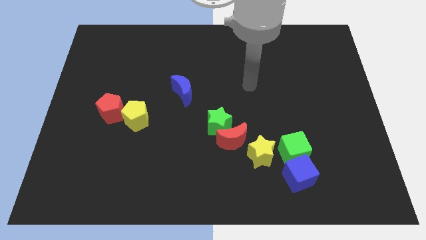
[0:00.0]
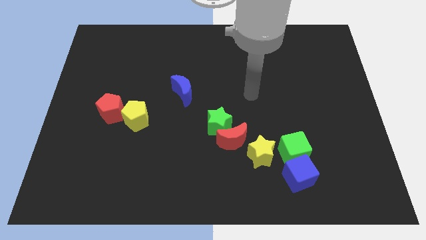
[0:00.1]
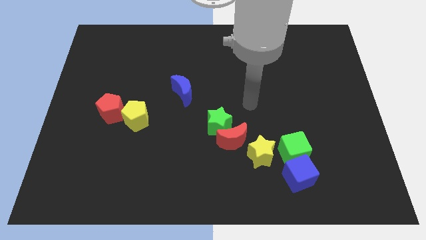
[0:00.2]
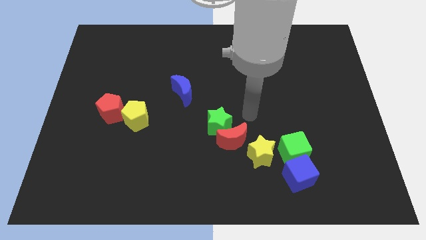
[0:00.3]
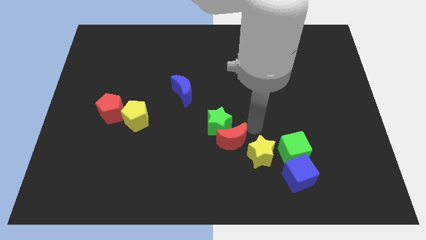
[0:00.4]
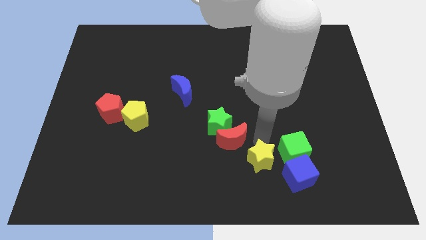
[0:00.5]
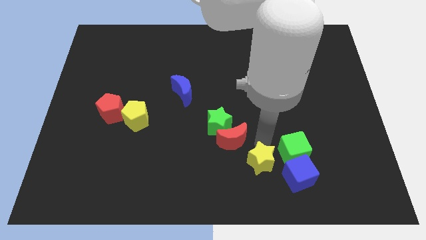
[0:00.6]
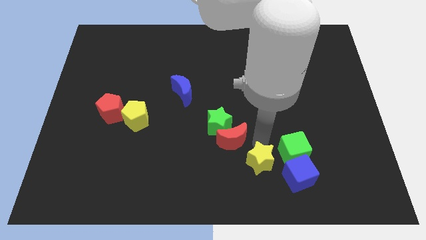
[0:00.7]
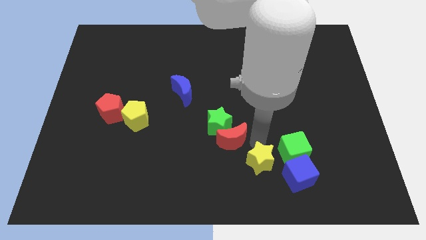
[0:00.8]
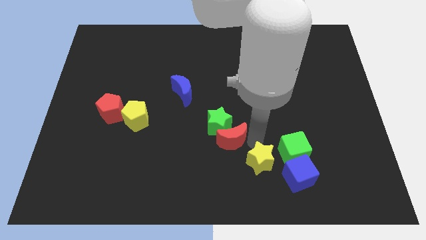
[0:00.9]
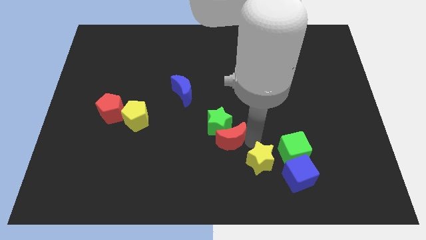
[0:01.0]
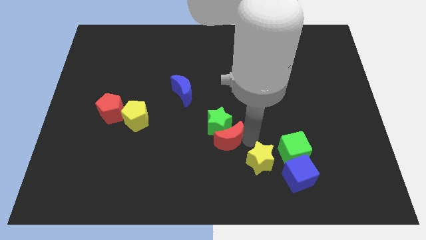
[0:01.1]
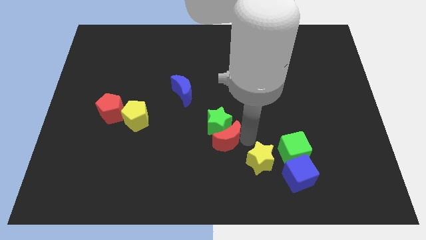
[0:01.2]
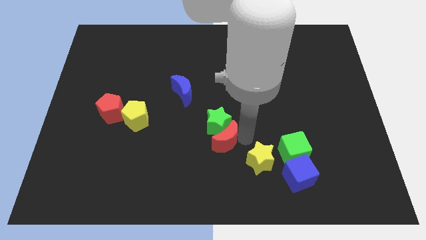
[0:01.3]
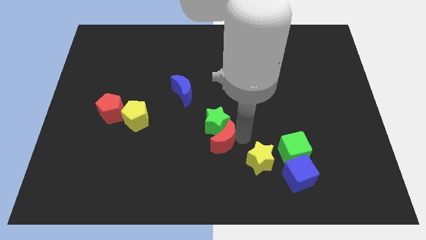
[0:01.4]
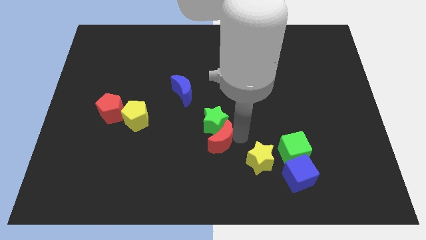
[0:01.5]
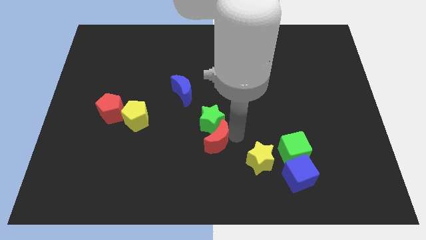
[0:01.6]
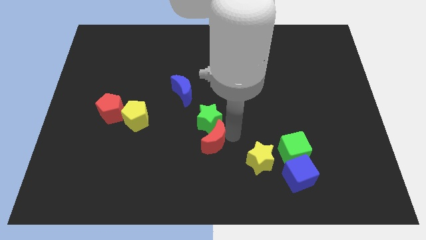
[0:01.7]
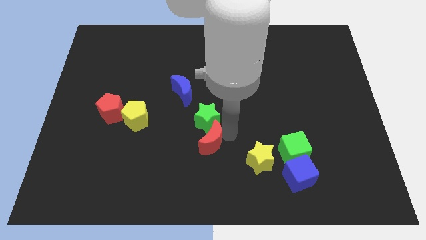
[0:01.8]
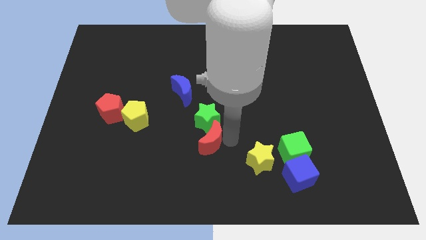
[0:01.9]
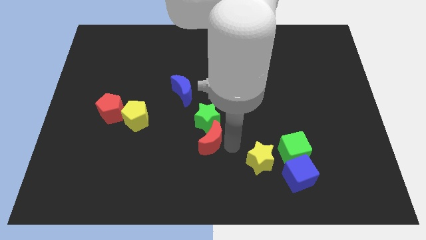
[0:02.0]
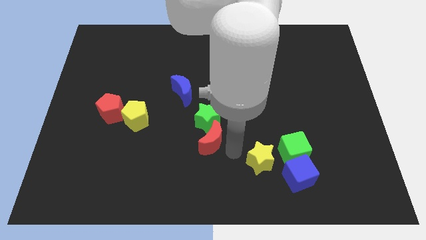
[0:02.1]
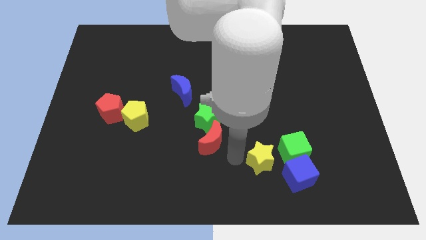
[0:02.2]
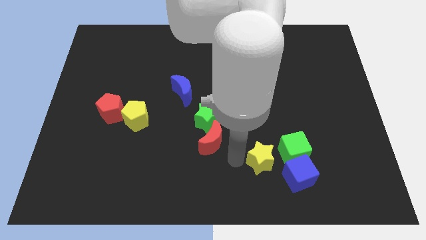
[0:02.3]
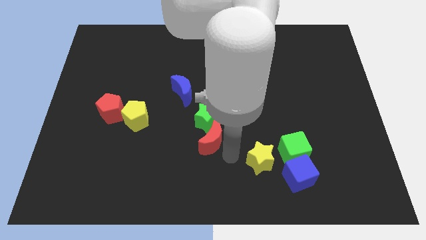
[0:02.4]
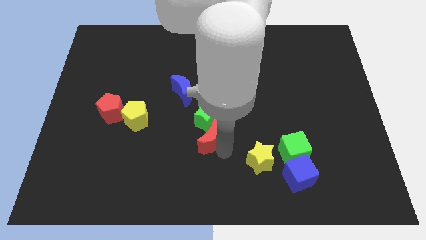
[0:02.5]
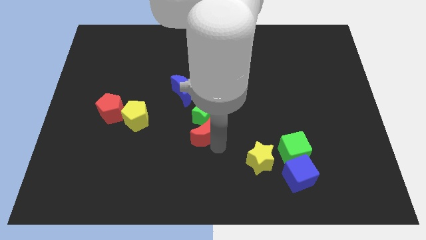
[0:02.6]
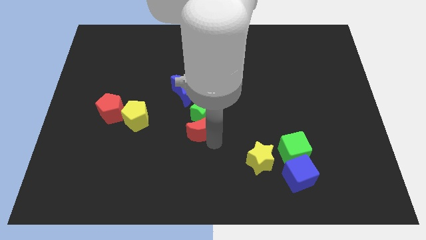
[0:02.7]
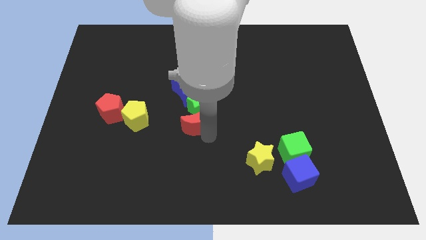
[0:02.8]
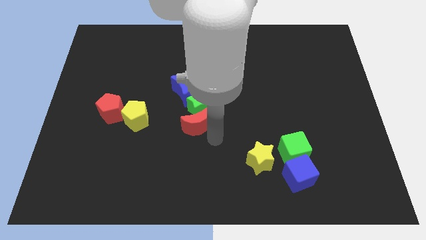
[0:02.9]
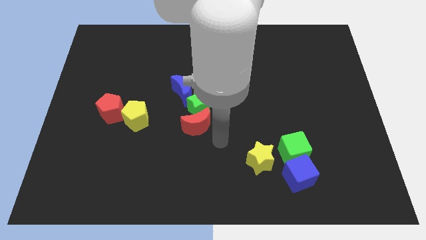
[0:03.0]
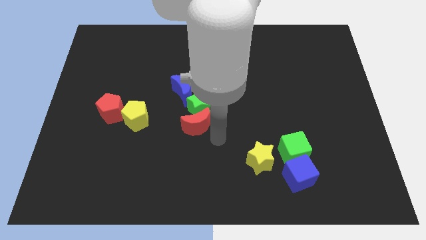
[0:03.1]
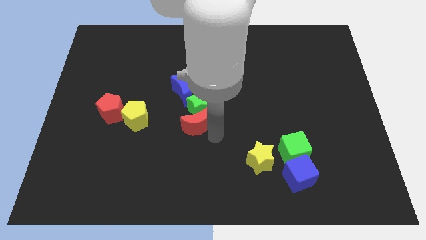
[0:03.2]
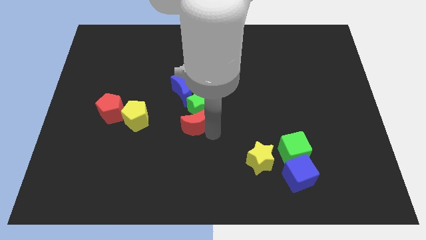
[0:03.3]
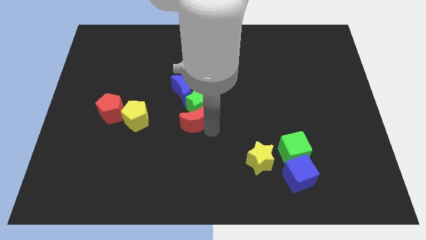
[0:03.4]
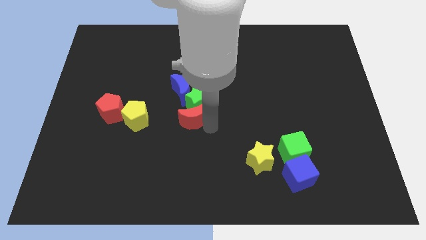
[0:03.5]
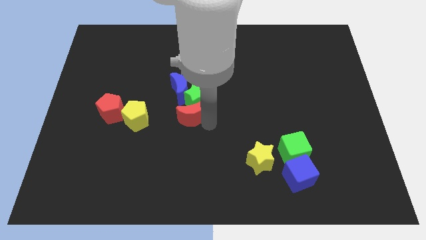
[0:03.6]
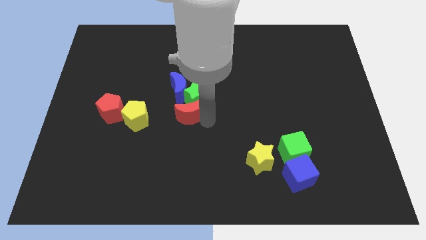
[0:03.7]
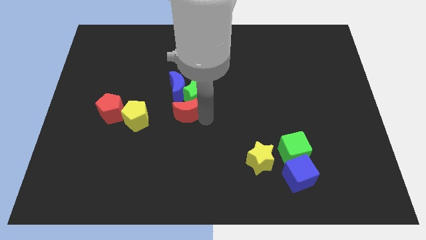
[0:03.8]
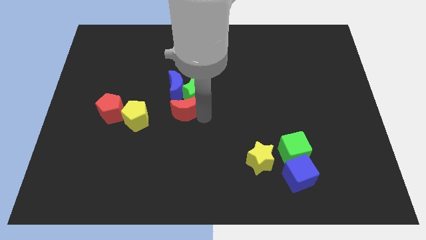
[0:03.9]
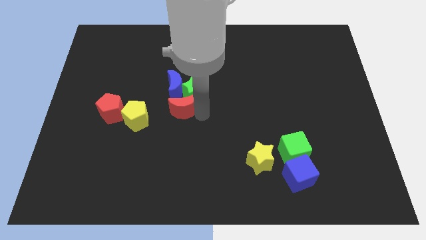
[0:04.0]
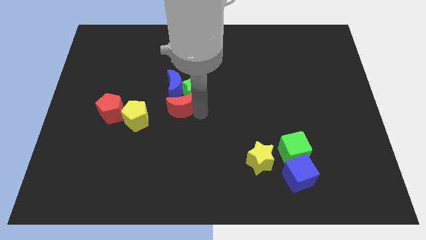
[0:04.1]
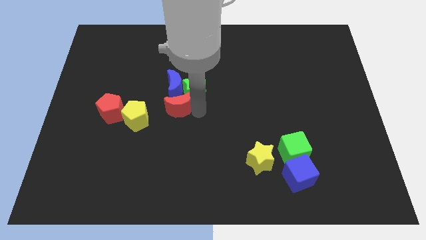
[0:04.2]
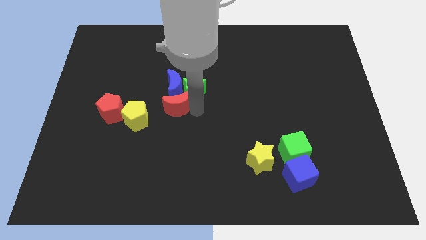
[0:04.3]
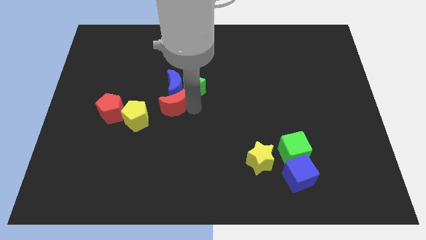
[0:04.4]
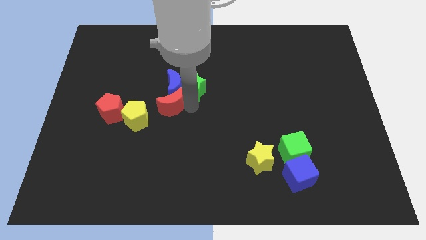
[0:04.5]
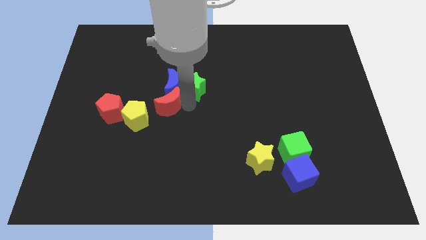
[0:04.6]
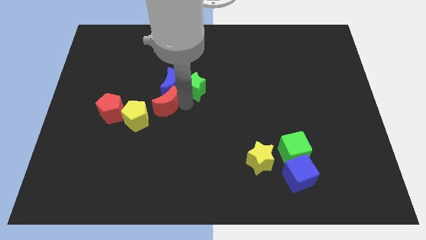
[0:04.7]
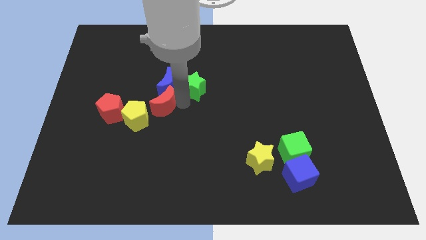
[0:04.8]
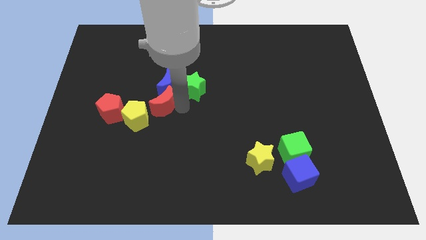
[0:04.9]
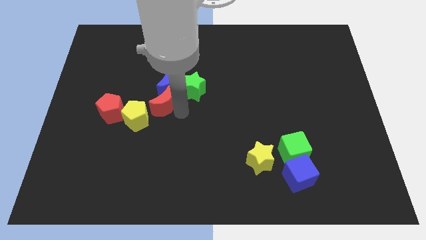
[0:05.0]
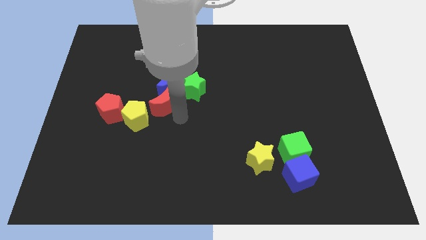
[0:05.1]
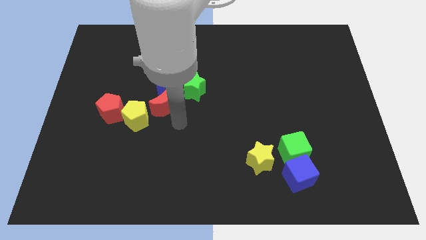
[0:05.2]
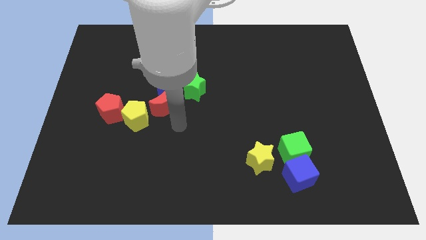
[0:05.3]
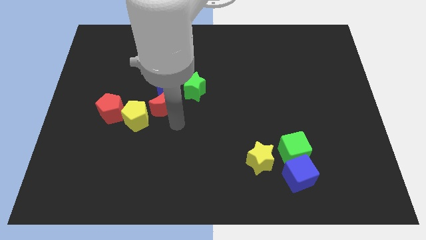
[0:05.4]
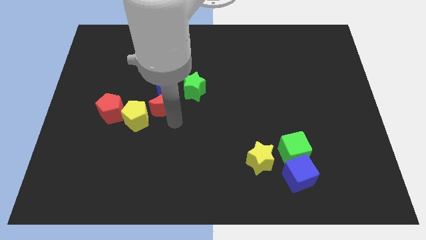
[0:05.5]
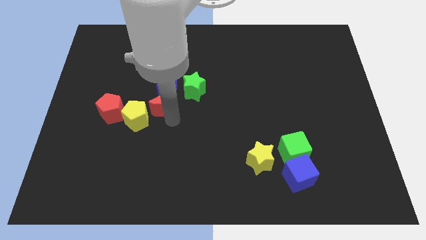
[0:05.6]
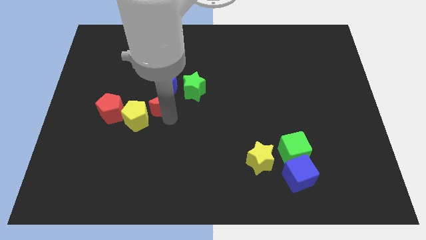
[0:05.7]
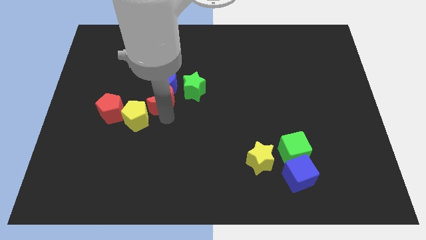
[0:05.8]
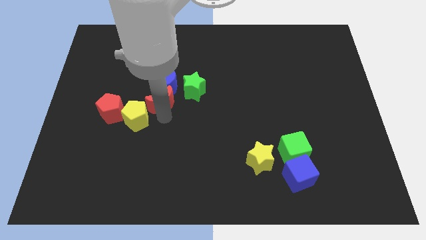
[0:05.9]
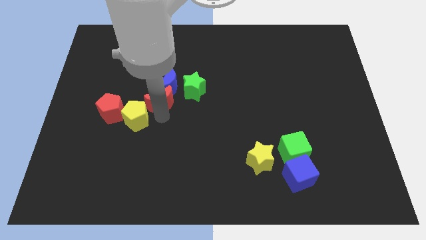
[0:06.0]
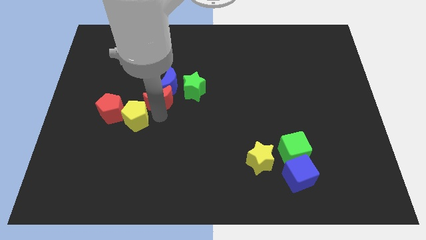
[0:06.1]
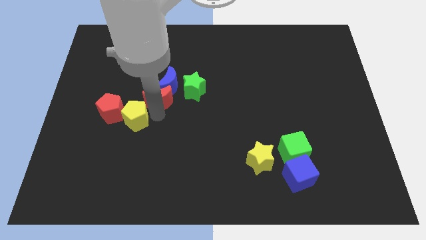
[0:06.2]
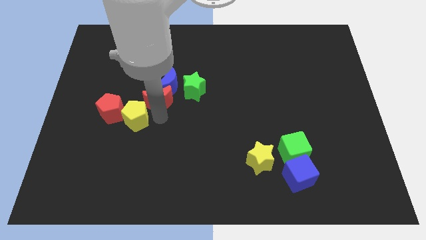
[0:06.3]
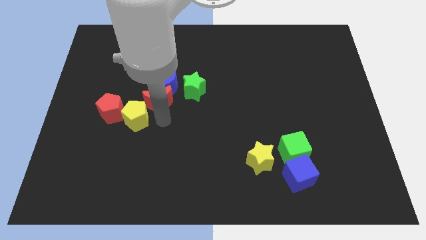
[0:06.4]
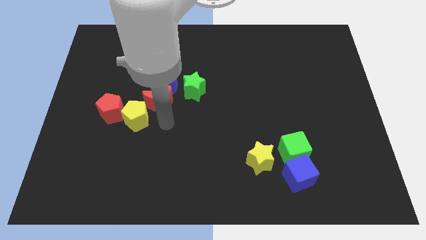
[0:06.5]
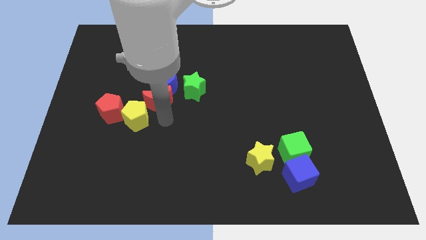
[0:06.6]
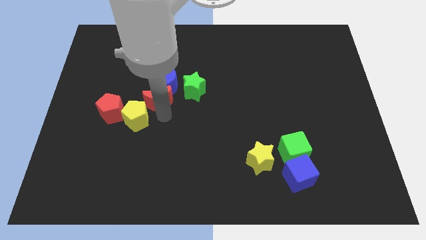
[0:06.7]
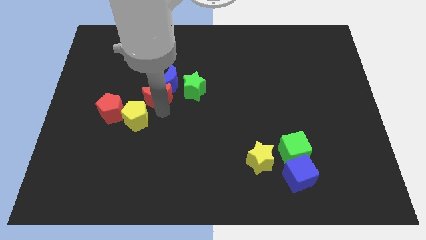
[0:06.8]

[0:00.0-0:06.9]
slide the red moon up and to the left diagonally

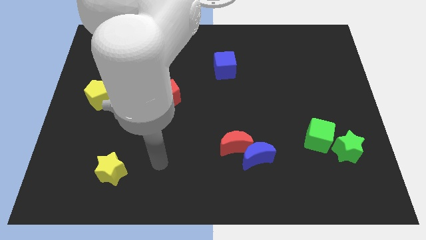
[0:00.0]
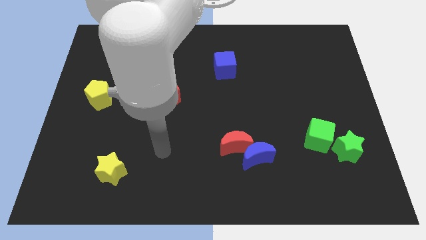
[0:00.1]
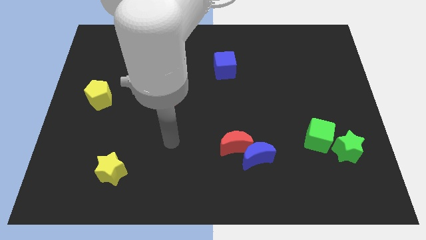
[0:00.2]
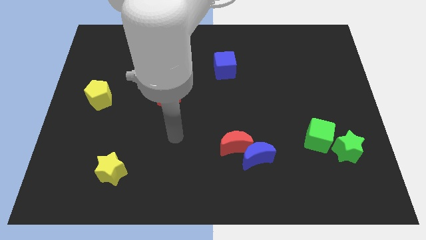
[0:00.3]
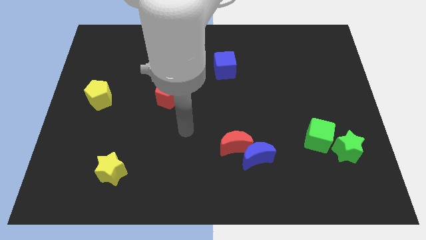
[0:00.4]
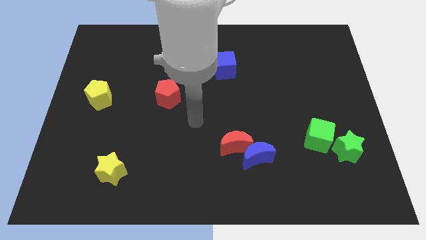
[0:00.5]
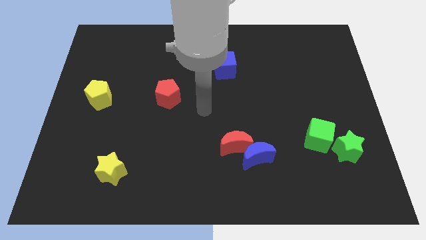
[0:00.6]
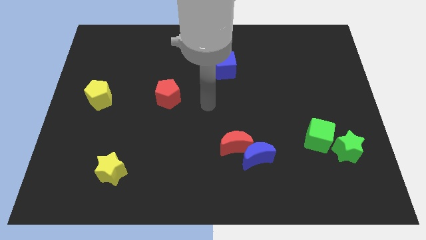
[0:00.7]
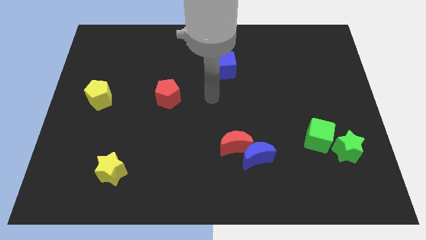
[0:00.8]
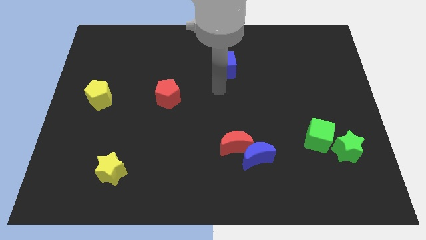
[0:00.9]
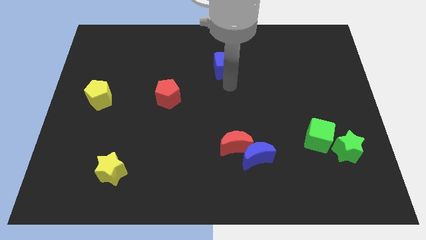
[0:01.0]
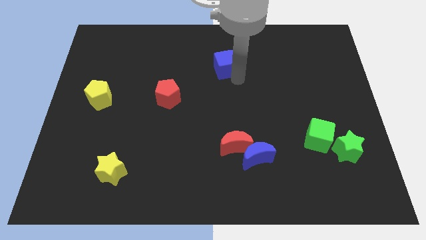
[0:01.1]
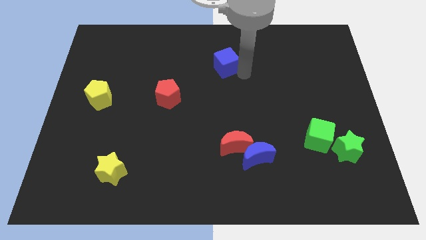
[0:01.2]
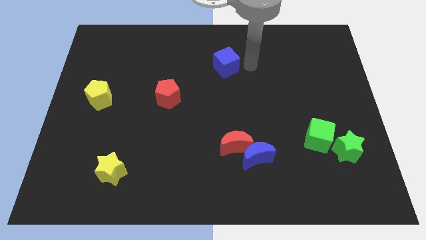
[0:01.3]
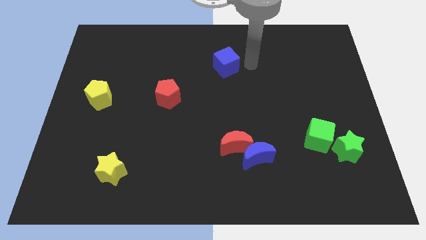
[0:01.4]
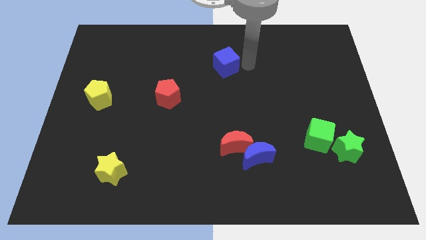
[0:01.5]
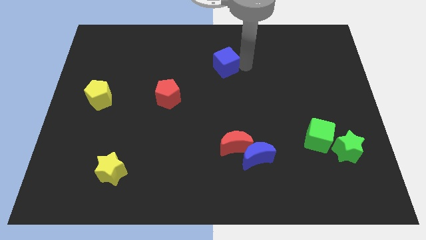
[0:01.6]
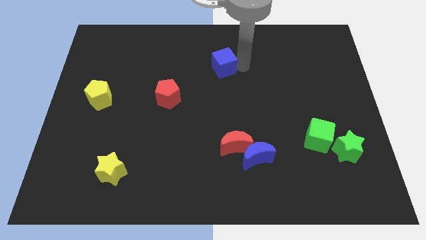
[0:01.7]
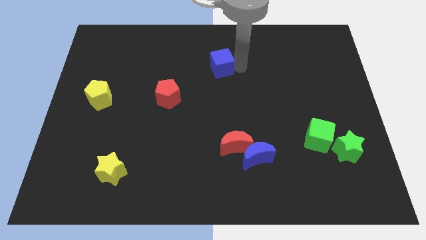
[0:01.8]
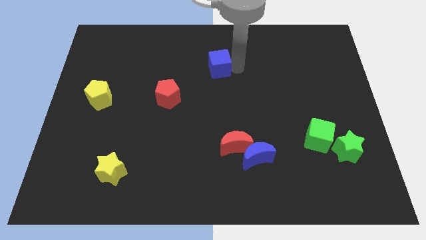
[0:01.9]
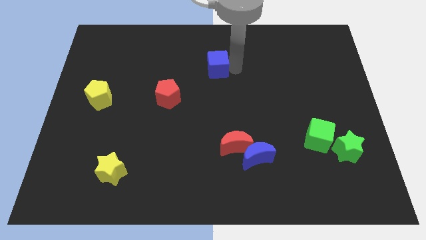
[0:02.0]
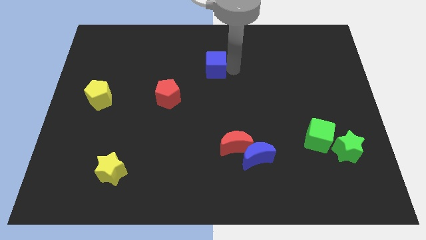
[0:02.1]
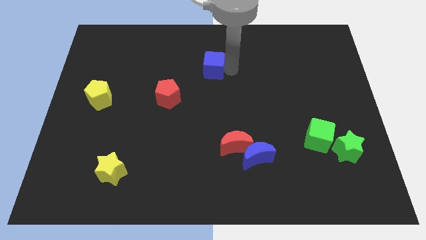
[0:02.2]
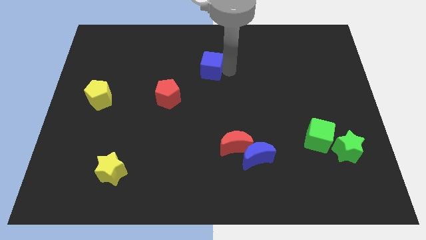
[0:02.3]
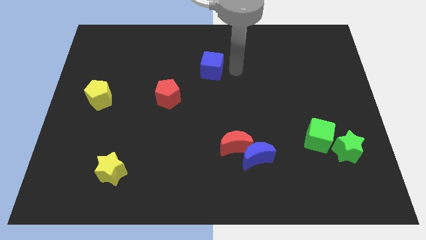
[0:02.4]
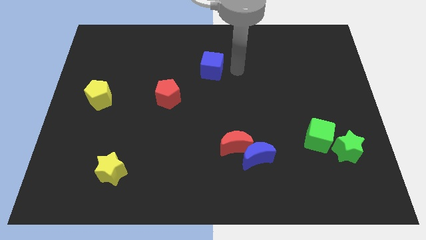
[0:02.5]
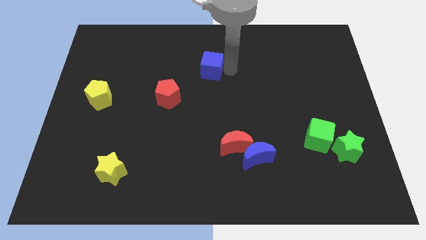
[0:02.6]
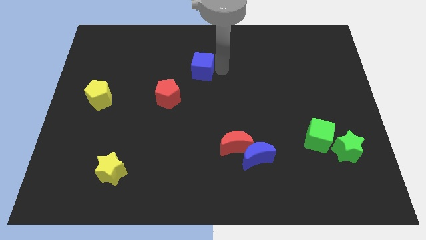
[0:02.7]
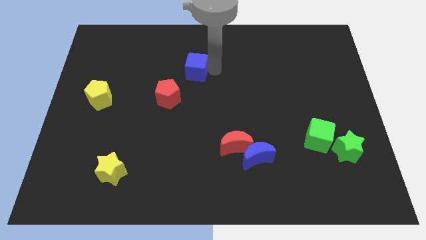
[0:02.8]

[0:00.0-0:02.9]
push the blue cube a bit to the left
